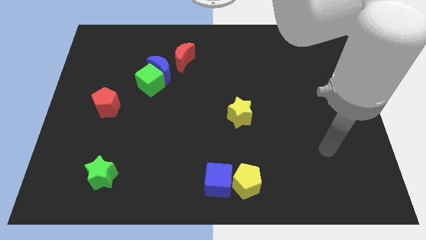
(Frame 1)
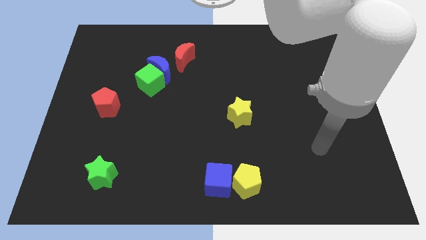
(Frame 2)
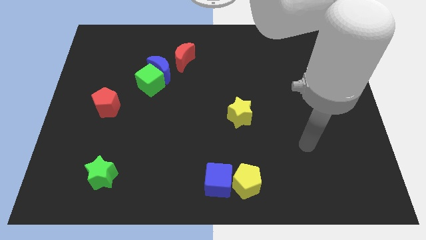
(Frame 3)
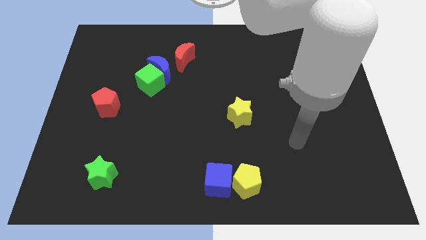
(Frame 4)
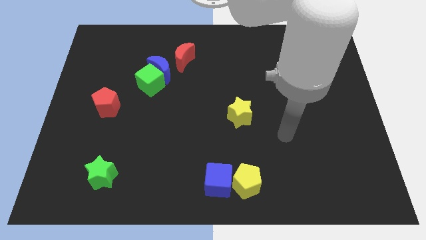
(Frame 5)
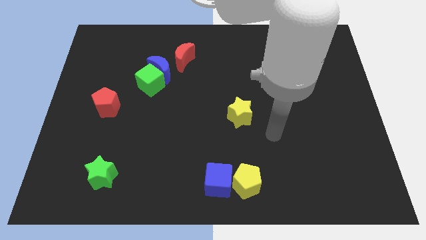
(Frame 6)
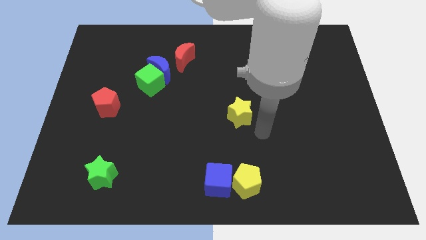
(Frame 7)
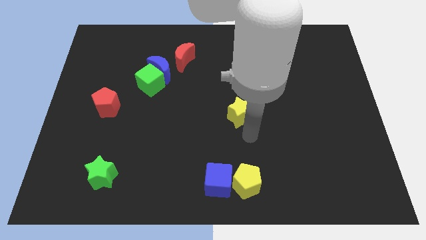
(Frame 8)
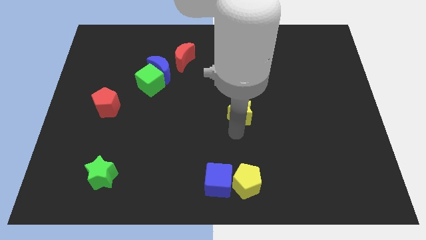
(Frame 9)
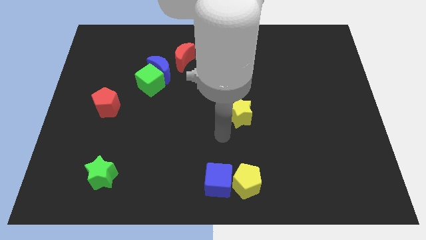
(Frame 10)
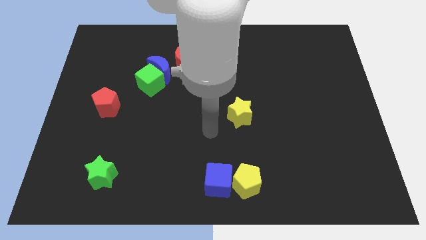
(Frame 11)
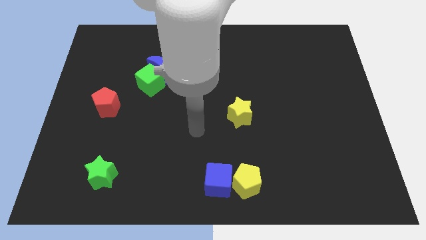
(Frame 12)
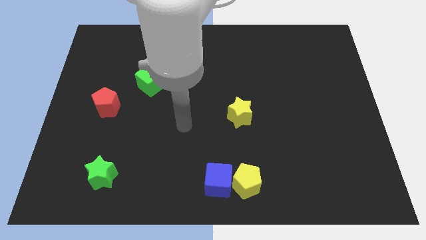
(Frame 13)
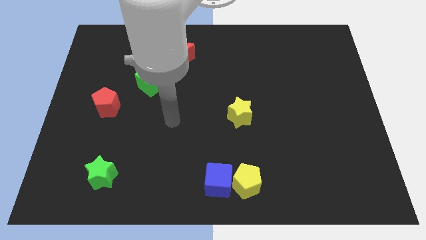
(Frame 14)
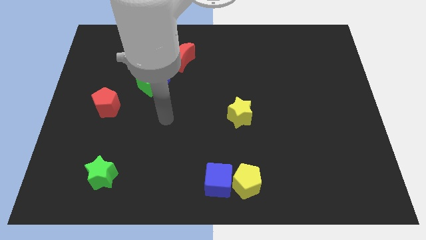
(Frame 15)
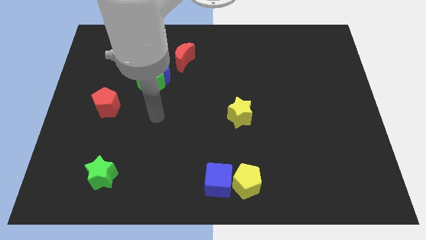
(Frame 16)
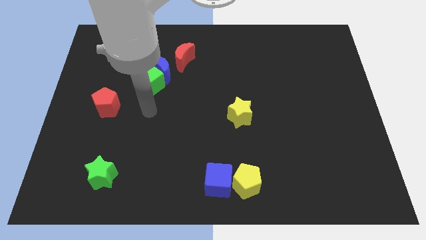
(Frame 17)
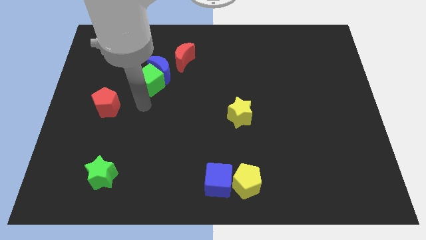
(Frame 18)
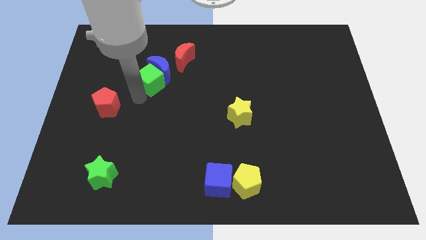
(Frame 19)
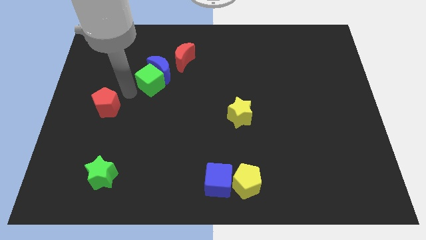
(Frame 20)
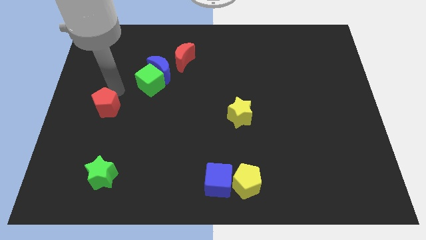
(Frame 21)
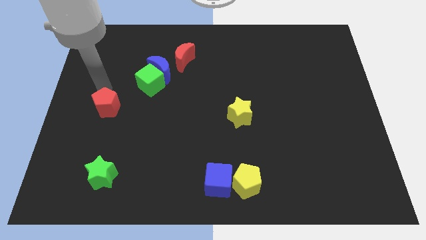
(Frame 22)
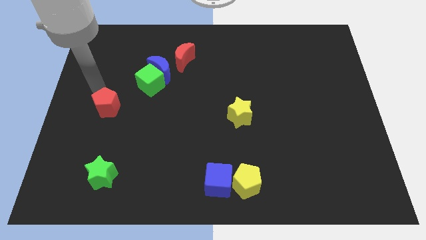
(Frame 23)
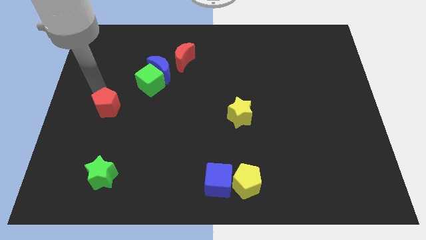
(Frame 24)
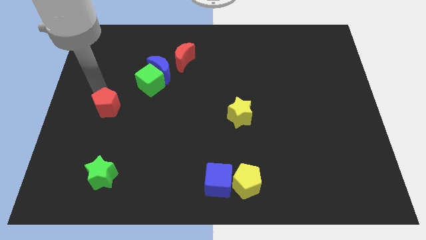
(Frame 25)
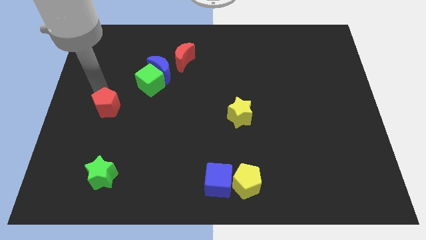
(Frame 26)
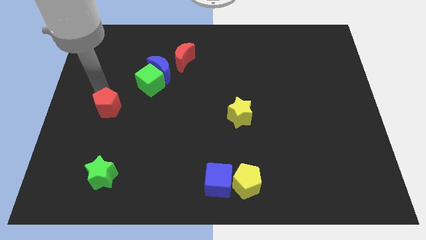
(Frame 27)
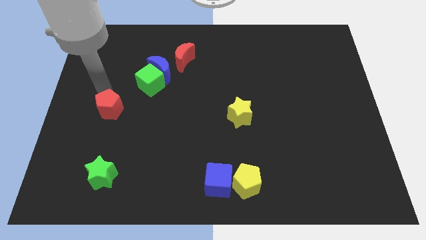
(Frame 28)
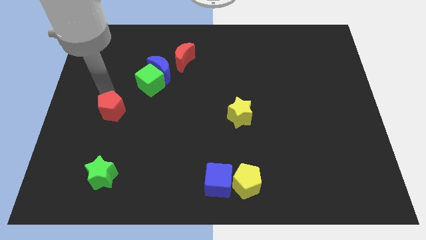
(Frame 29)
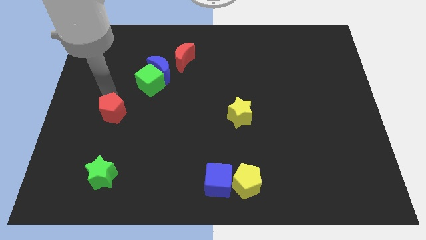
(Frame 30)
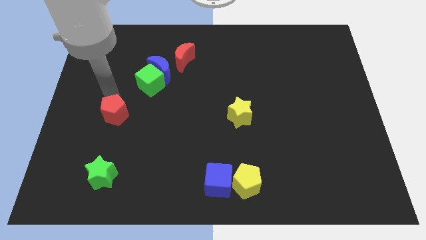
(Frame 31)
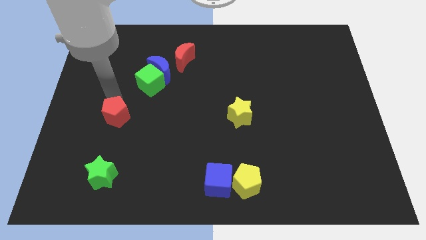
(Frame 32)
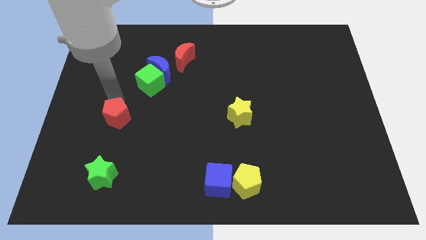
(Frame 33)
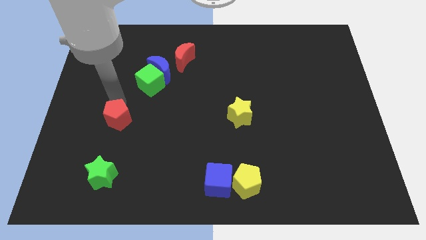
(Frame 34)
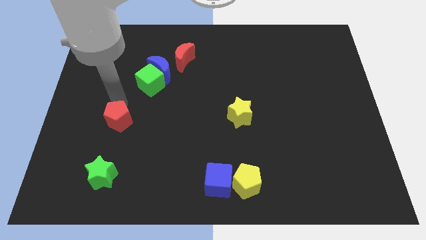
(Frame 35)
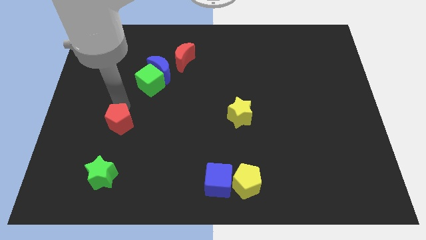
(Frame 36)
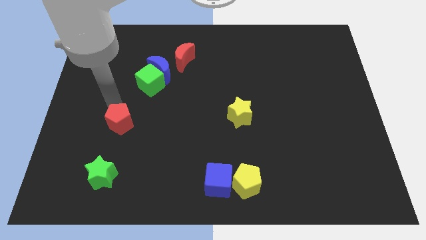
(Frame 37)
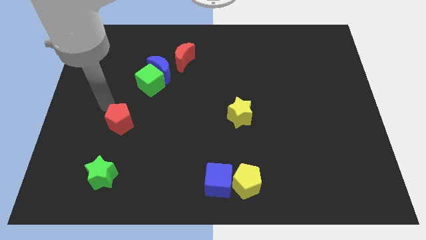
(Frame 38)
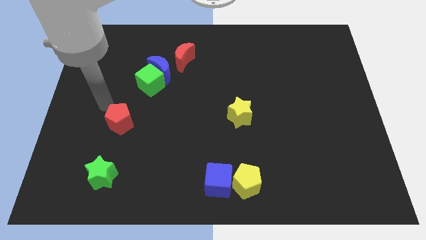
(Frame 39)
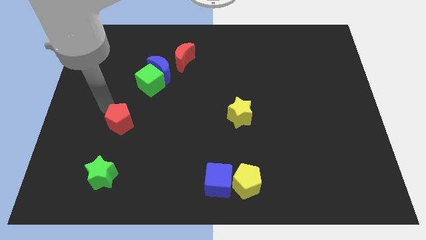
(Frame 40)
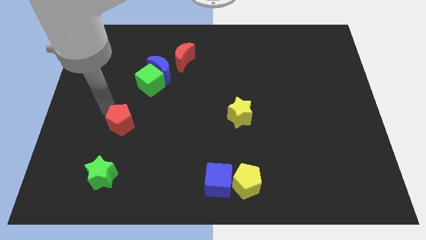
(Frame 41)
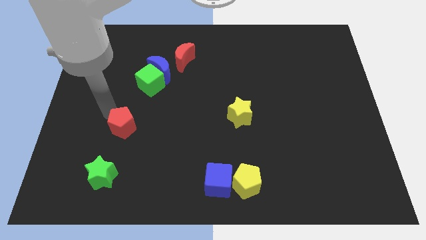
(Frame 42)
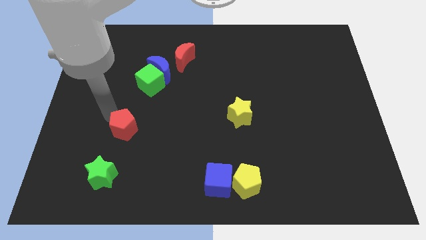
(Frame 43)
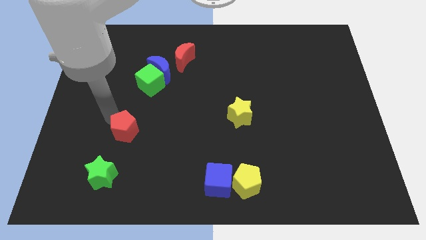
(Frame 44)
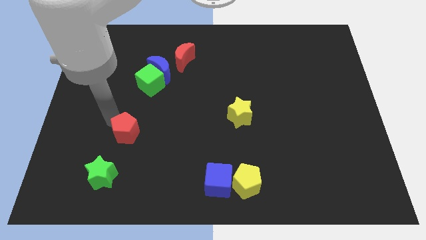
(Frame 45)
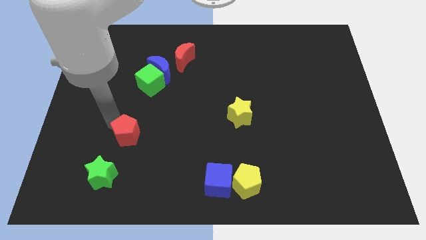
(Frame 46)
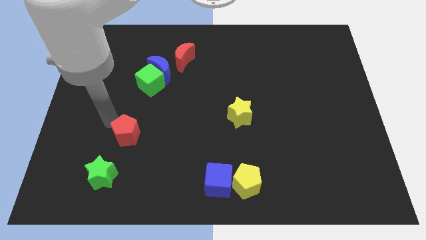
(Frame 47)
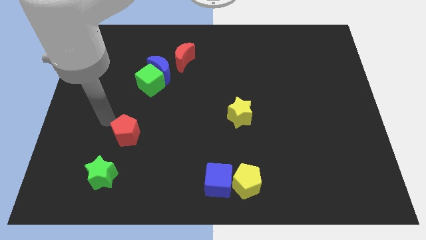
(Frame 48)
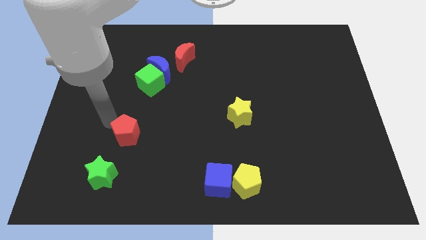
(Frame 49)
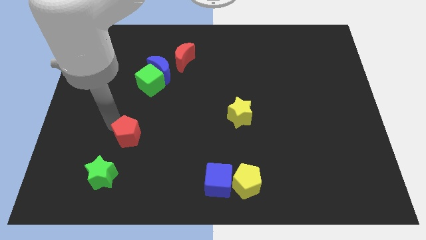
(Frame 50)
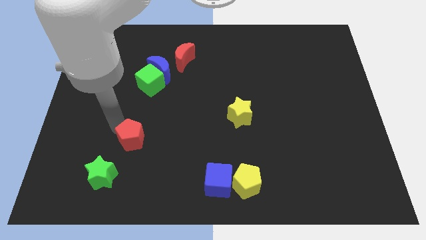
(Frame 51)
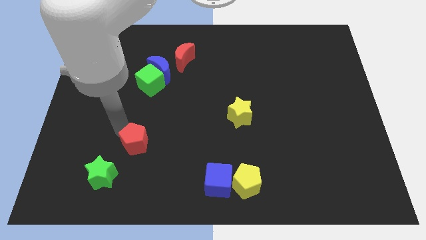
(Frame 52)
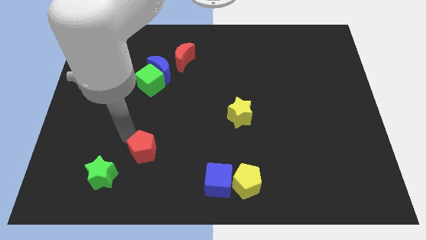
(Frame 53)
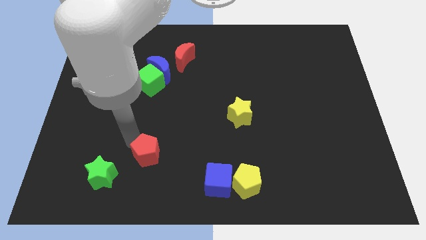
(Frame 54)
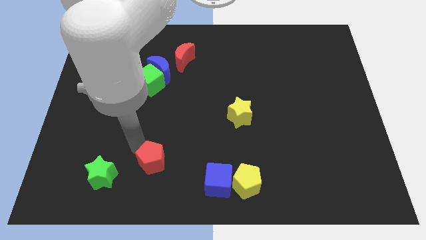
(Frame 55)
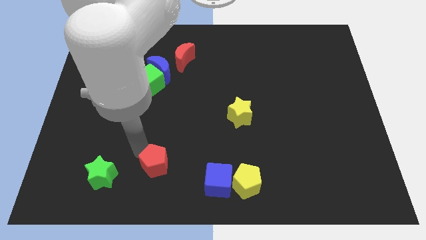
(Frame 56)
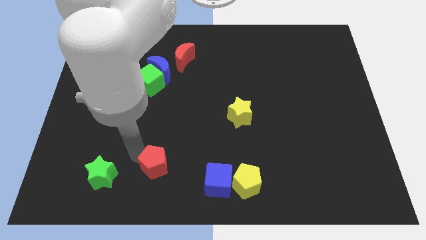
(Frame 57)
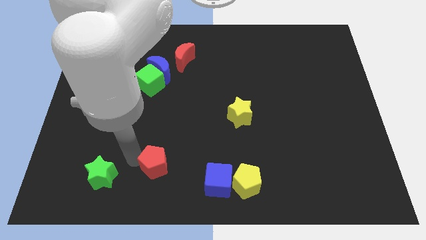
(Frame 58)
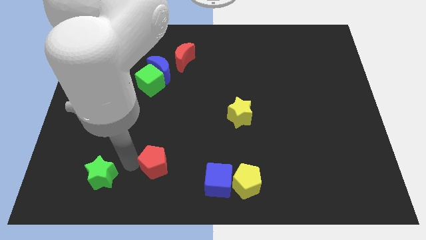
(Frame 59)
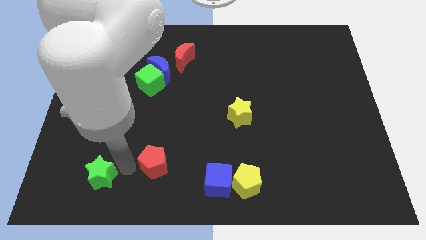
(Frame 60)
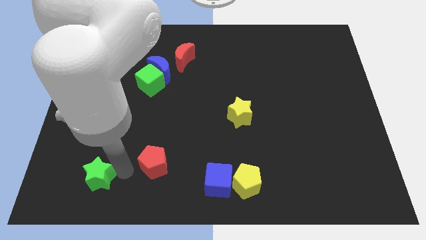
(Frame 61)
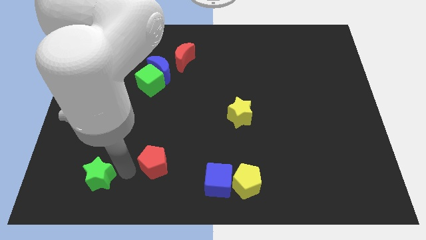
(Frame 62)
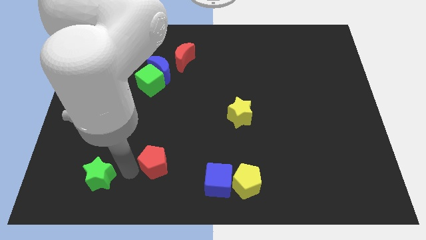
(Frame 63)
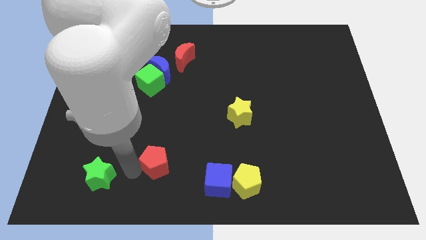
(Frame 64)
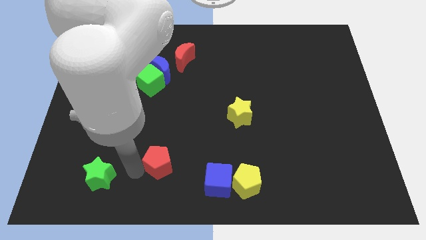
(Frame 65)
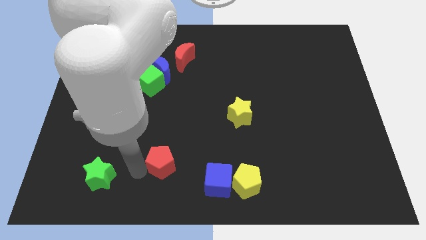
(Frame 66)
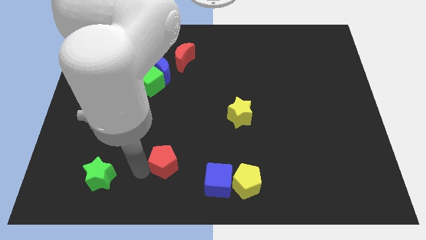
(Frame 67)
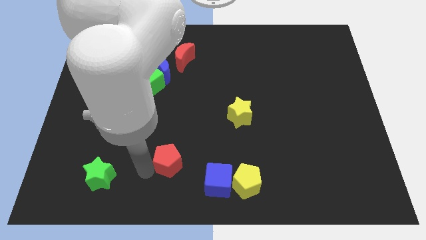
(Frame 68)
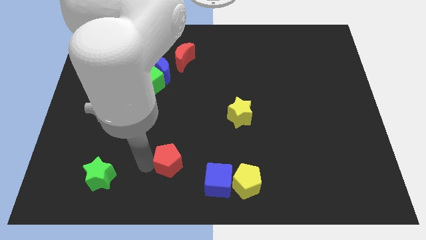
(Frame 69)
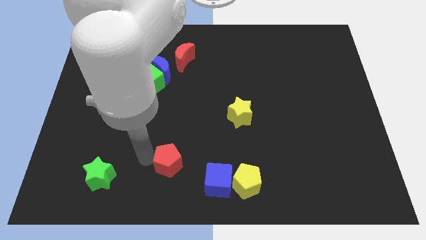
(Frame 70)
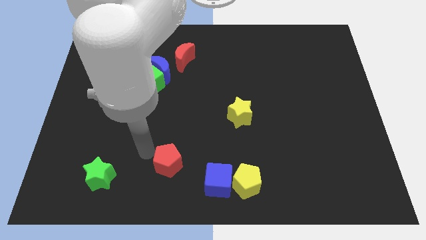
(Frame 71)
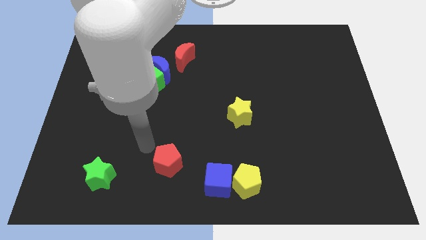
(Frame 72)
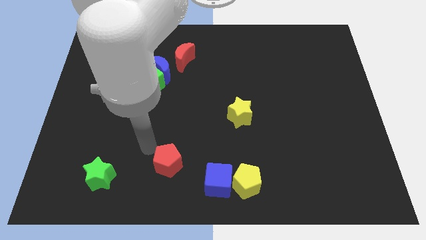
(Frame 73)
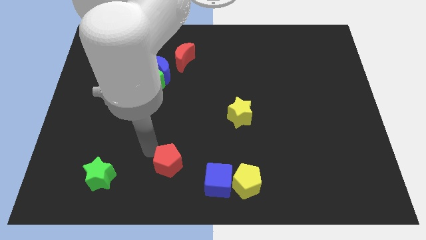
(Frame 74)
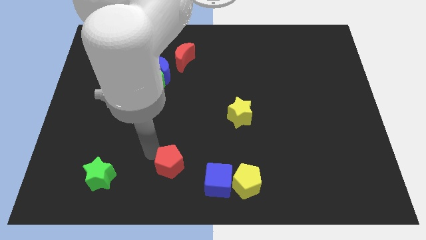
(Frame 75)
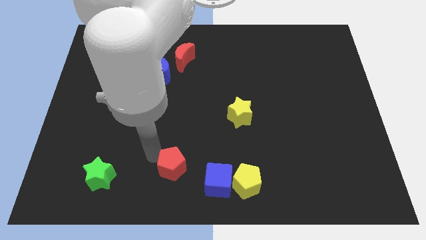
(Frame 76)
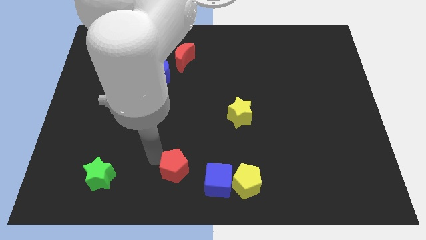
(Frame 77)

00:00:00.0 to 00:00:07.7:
put the red pentagon to the left of the yellow pentagon
